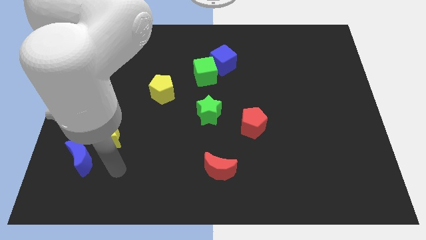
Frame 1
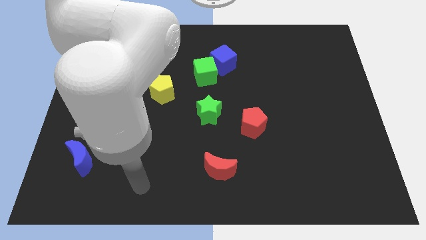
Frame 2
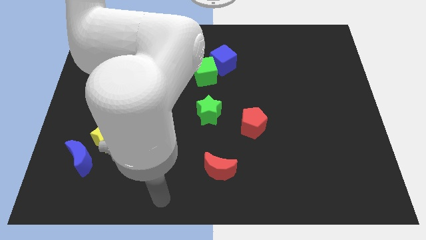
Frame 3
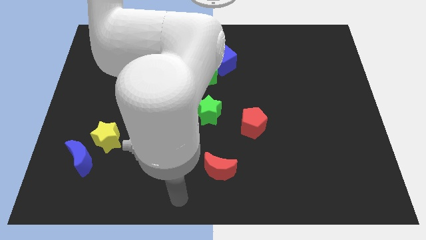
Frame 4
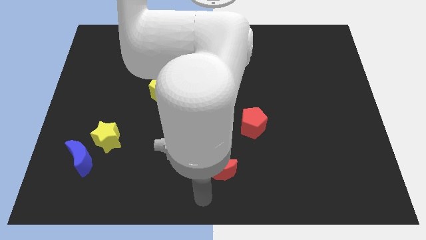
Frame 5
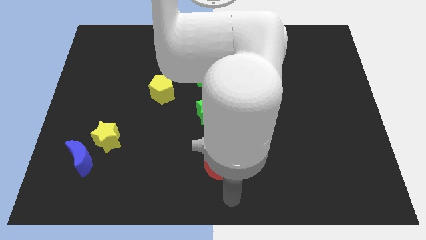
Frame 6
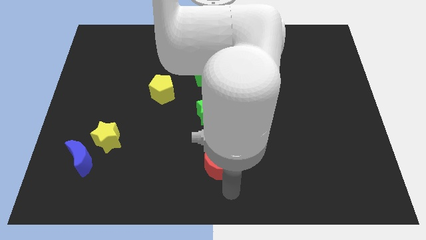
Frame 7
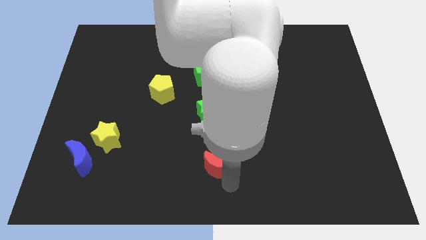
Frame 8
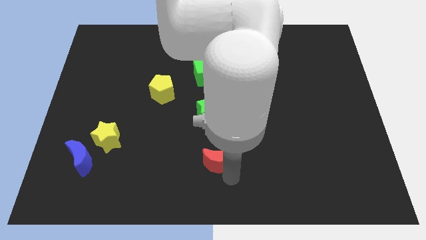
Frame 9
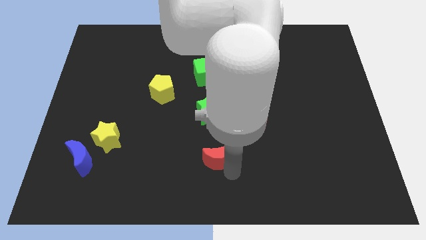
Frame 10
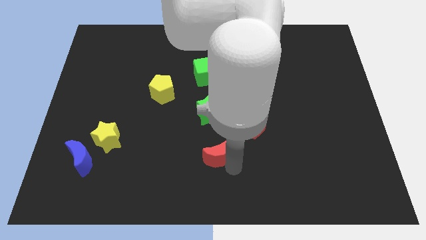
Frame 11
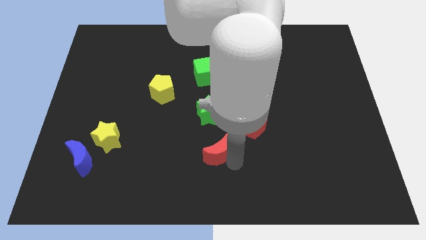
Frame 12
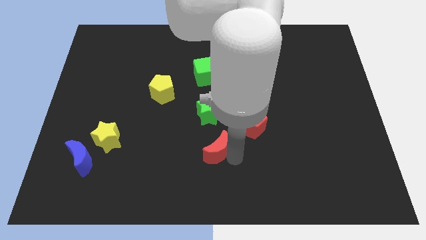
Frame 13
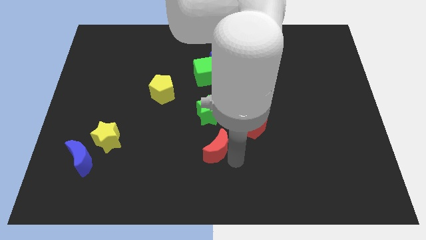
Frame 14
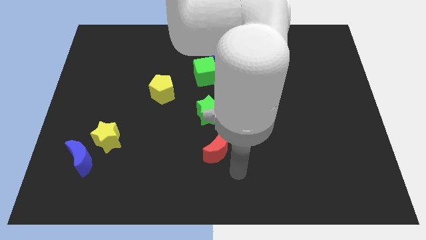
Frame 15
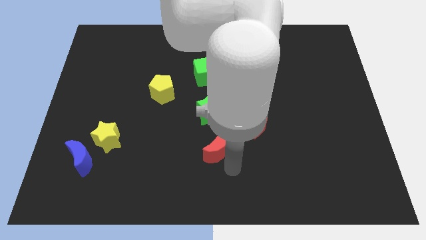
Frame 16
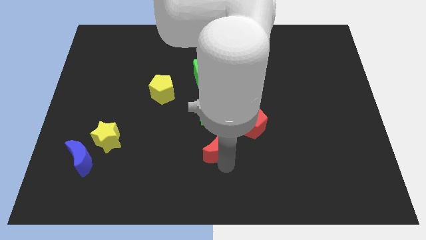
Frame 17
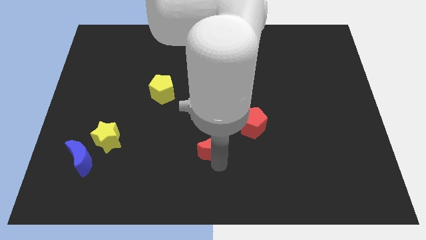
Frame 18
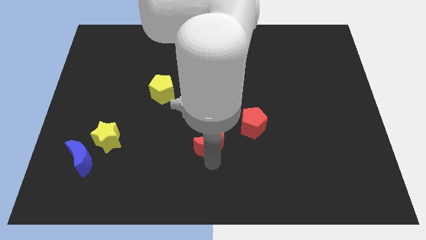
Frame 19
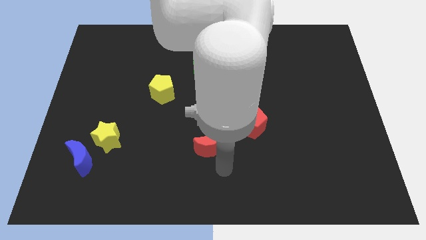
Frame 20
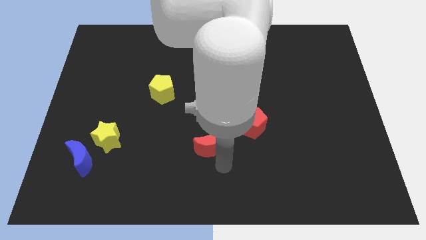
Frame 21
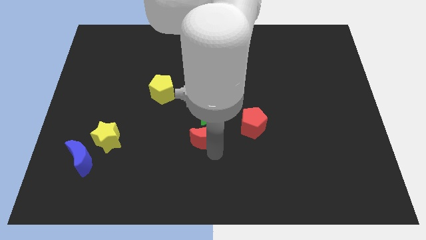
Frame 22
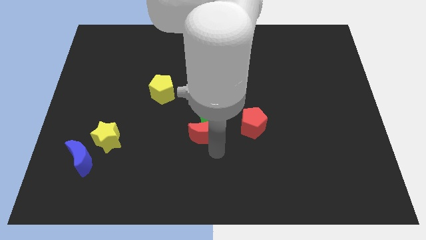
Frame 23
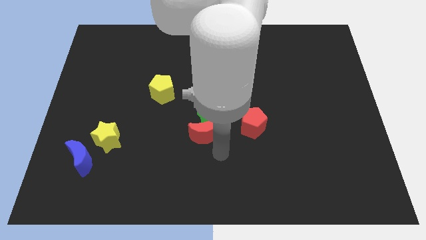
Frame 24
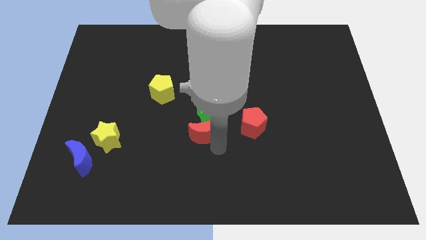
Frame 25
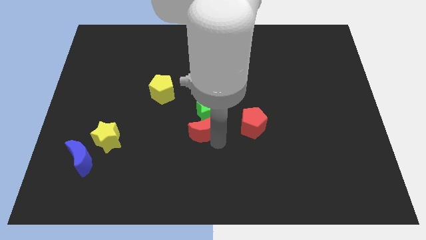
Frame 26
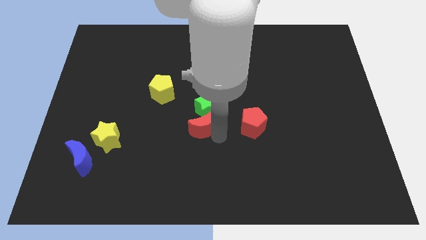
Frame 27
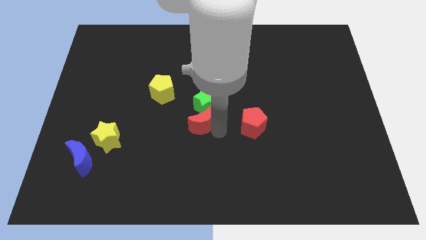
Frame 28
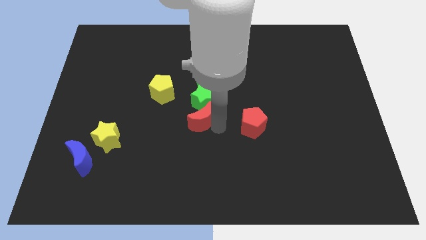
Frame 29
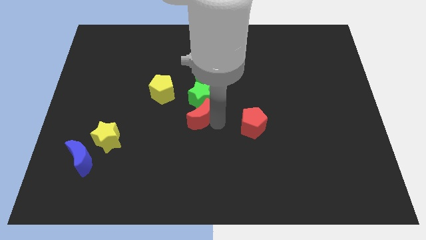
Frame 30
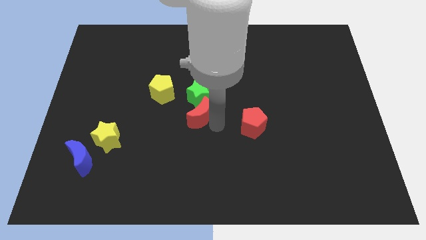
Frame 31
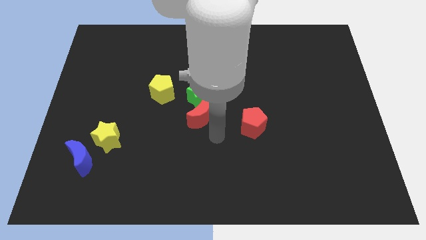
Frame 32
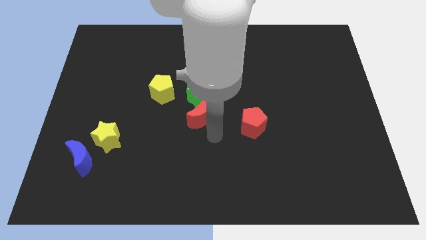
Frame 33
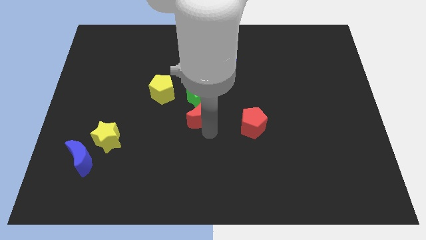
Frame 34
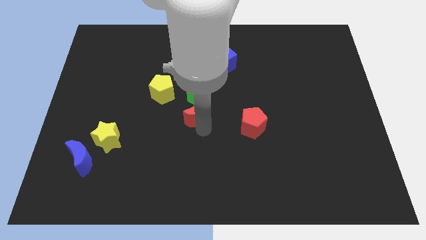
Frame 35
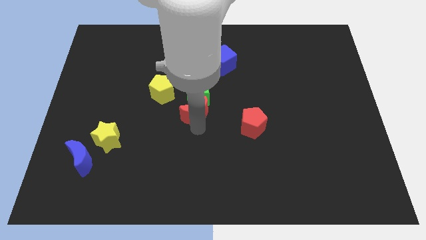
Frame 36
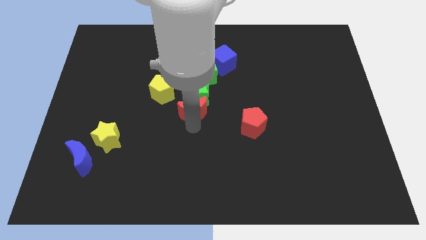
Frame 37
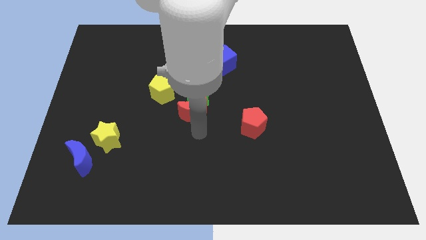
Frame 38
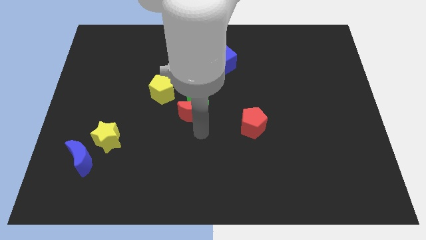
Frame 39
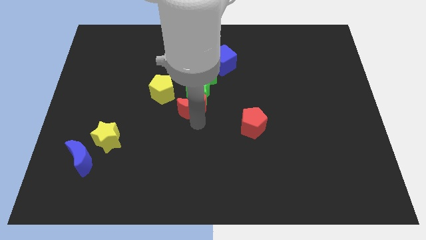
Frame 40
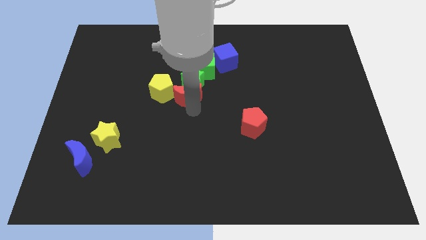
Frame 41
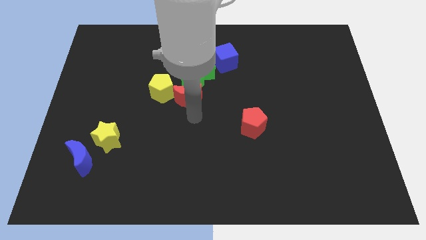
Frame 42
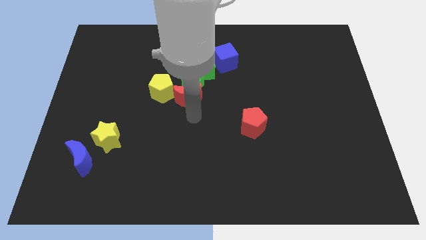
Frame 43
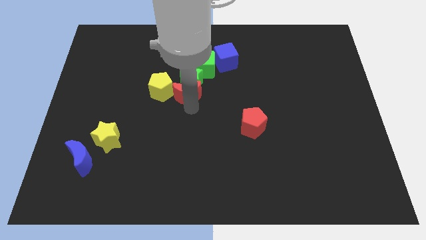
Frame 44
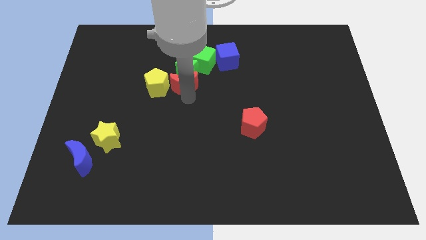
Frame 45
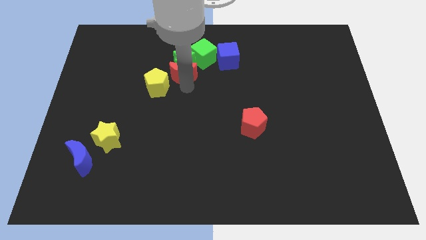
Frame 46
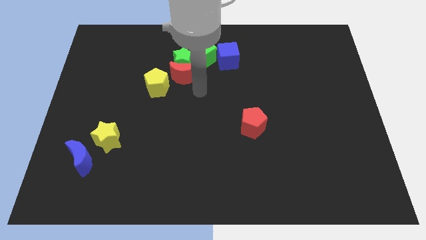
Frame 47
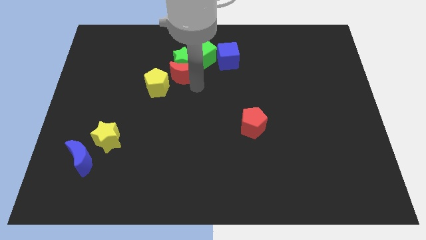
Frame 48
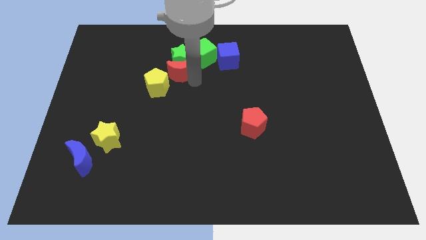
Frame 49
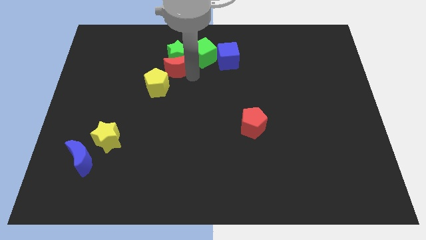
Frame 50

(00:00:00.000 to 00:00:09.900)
push the red moon above the yellow pentagon

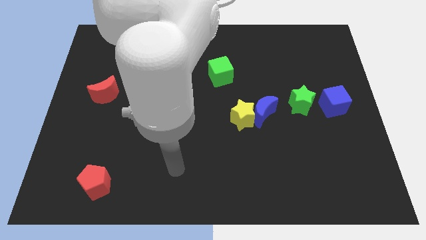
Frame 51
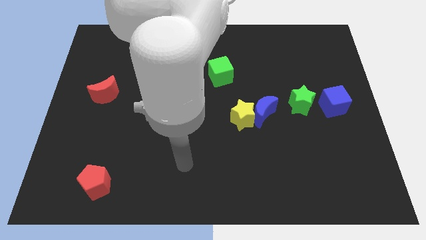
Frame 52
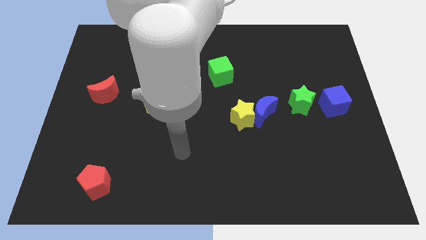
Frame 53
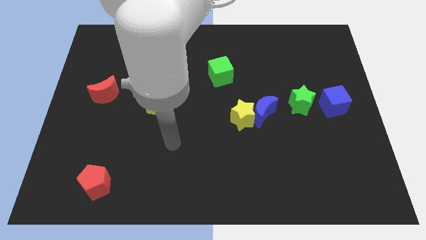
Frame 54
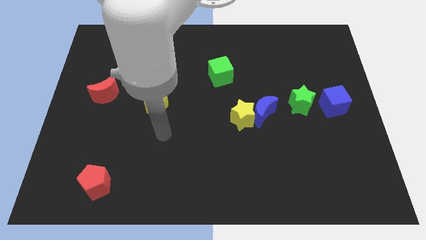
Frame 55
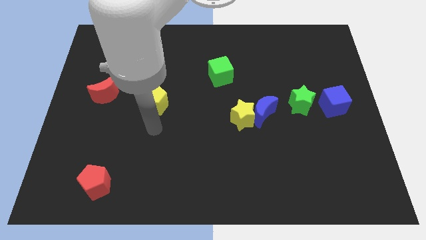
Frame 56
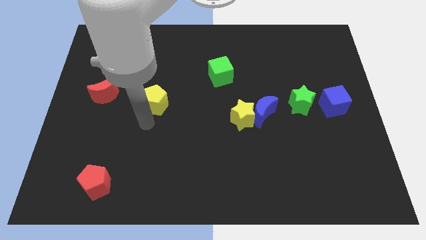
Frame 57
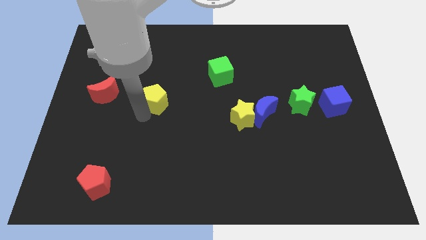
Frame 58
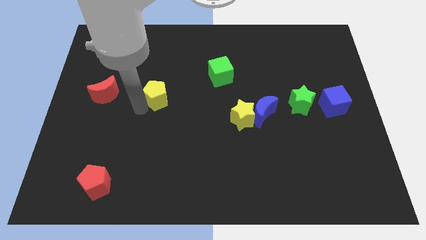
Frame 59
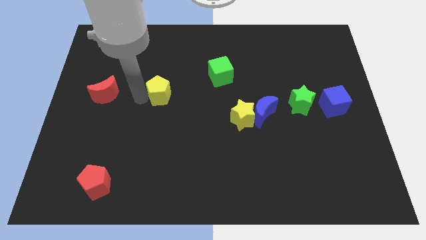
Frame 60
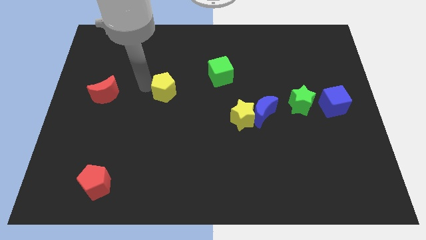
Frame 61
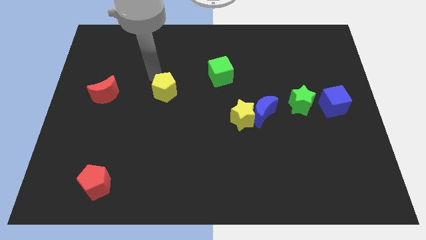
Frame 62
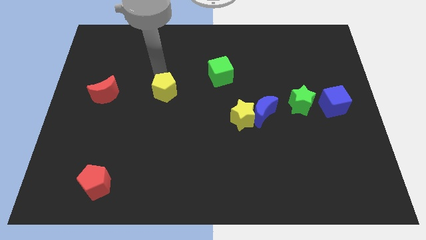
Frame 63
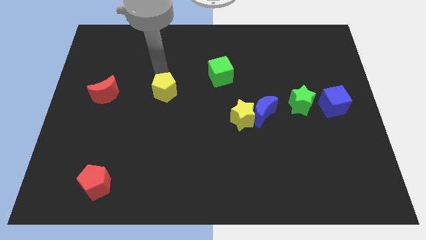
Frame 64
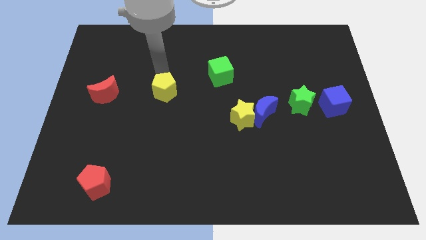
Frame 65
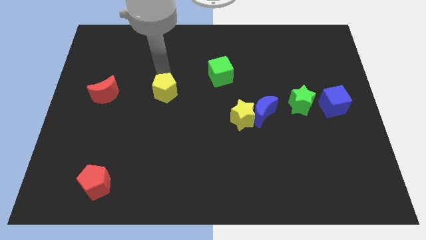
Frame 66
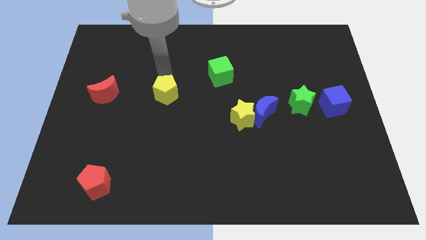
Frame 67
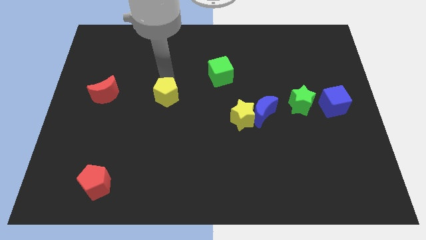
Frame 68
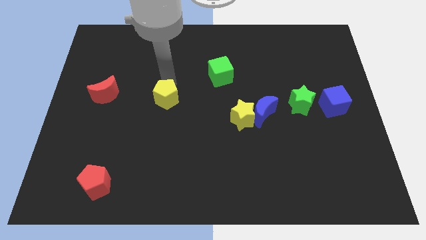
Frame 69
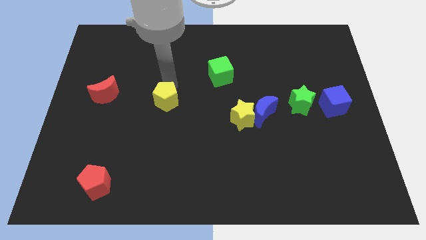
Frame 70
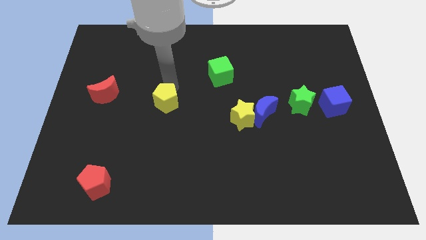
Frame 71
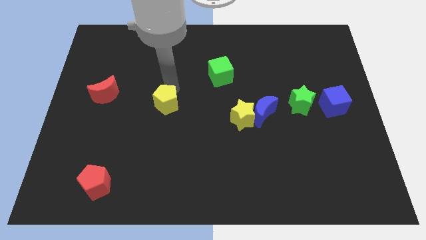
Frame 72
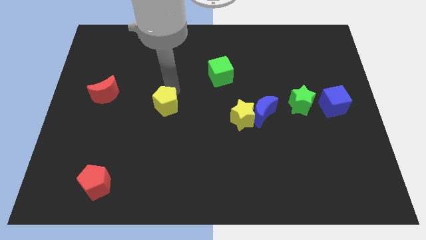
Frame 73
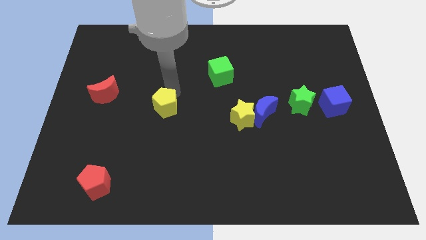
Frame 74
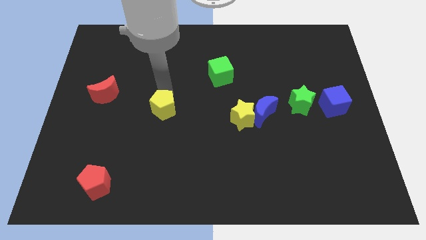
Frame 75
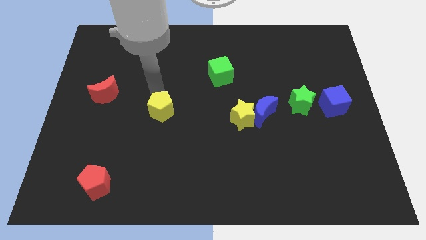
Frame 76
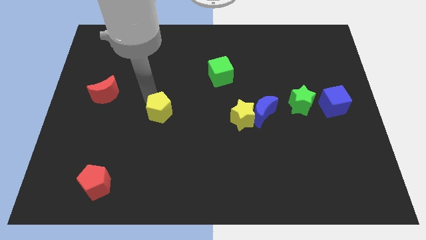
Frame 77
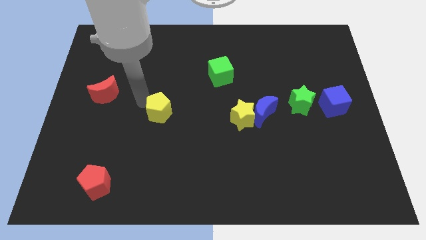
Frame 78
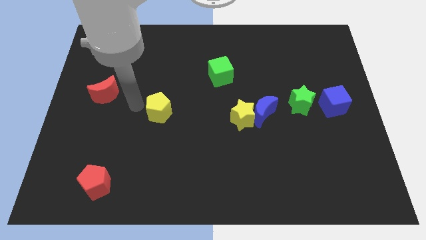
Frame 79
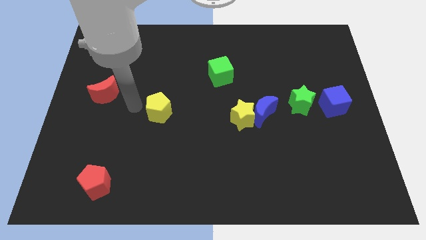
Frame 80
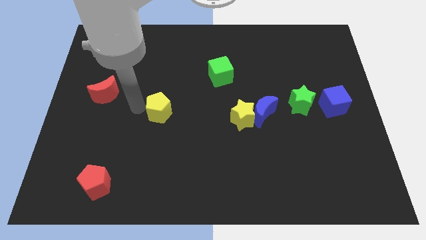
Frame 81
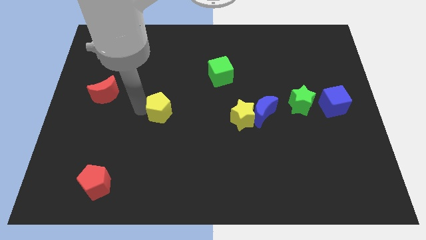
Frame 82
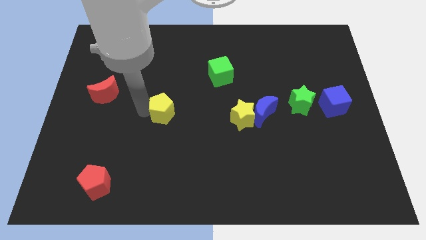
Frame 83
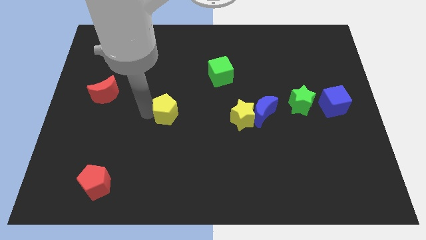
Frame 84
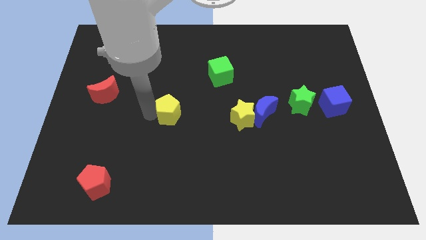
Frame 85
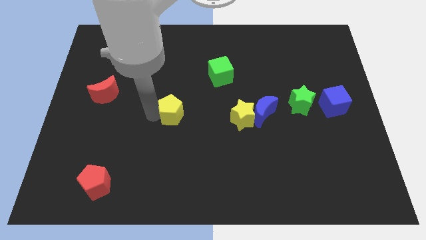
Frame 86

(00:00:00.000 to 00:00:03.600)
put the yellow pentagon left of the yellow star
